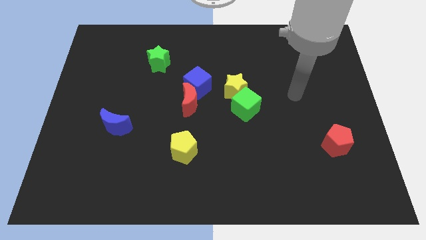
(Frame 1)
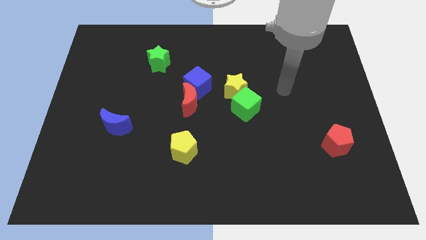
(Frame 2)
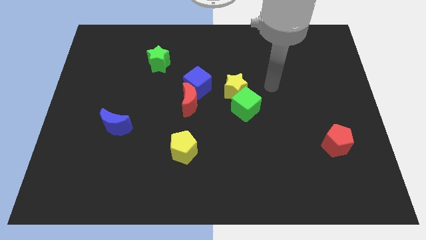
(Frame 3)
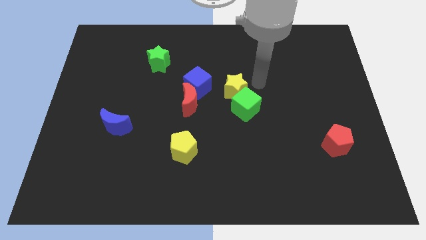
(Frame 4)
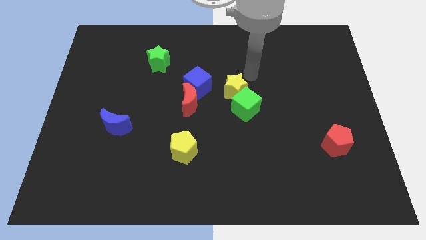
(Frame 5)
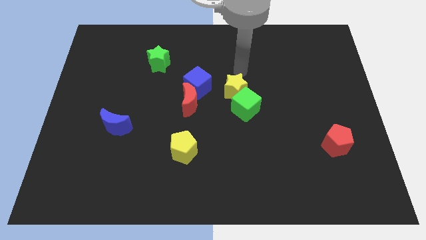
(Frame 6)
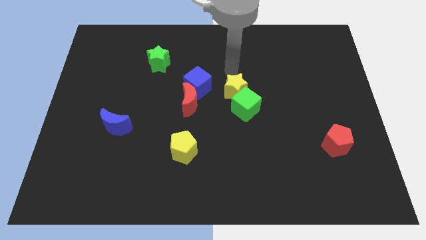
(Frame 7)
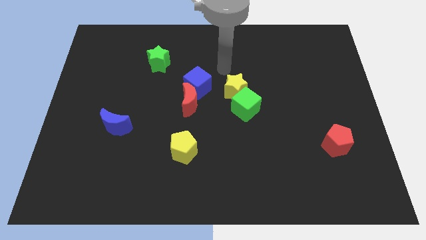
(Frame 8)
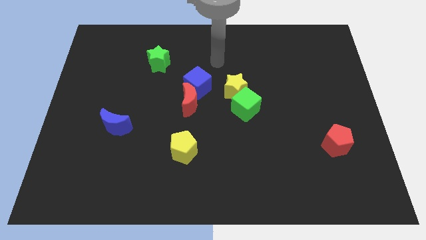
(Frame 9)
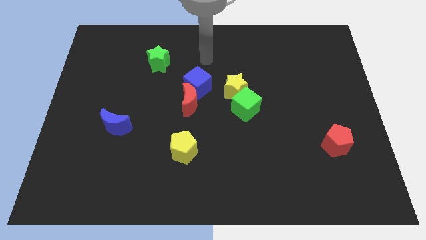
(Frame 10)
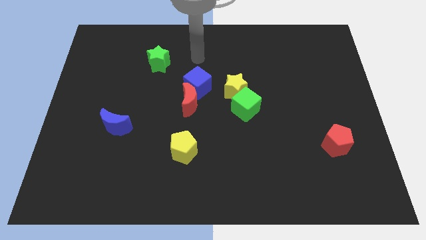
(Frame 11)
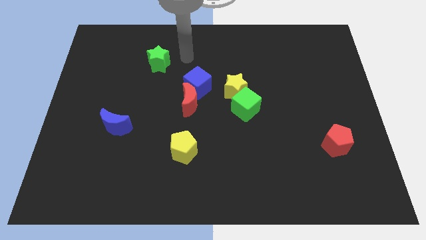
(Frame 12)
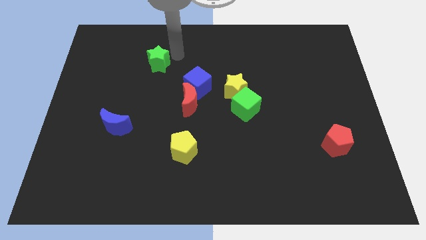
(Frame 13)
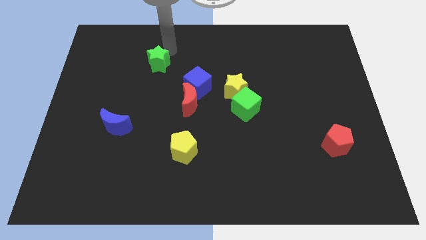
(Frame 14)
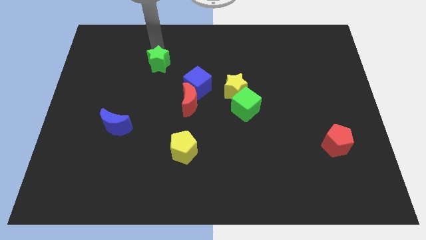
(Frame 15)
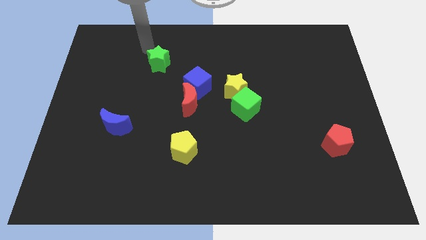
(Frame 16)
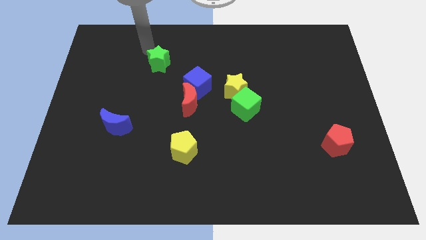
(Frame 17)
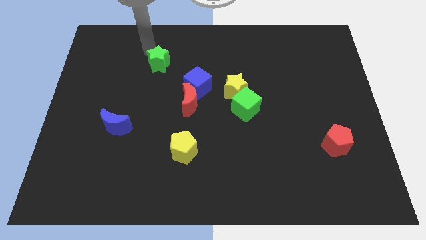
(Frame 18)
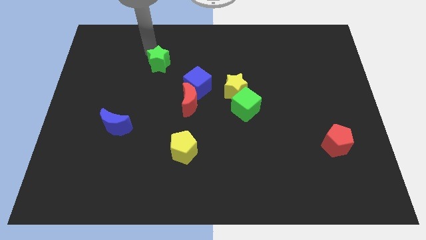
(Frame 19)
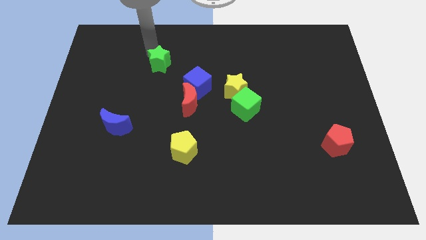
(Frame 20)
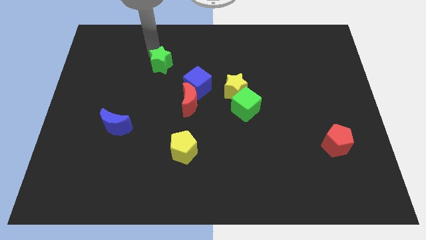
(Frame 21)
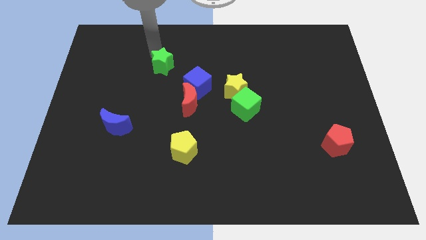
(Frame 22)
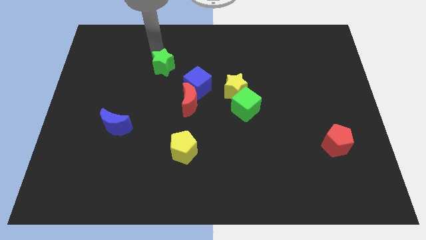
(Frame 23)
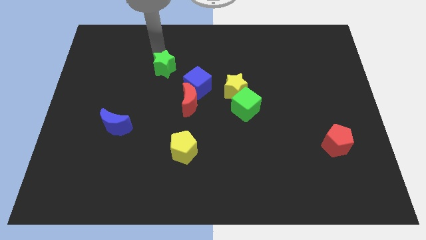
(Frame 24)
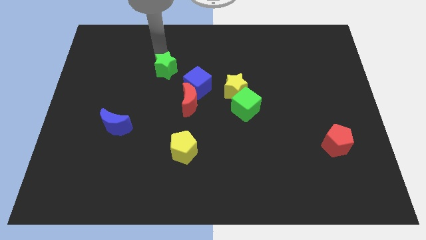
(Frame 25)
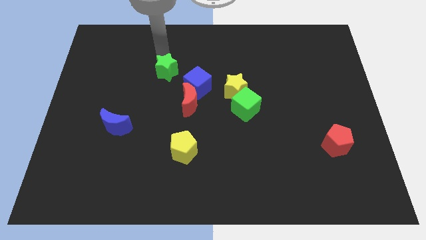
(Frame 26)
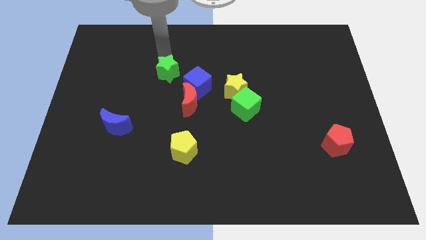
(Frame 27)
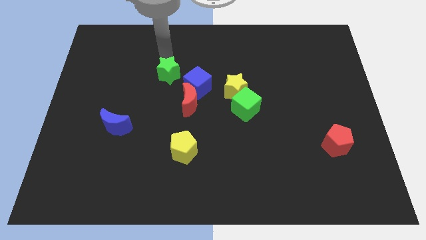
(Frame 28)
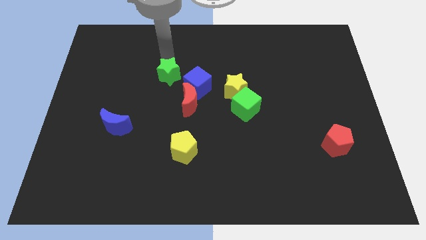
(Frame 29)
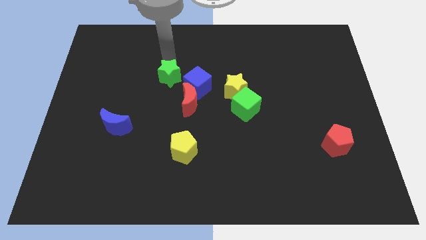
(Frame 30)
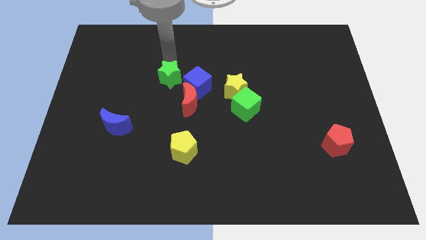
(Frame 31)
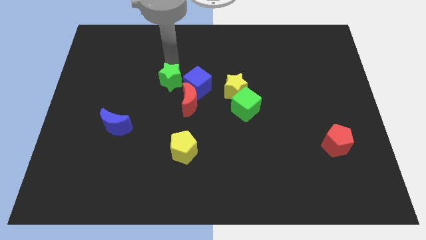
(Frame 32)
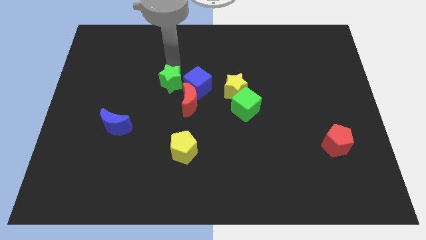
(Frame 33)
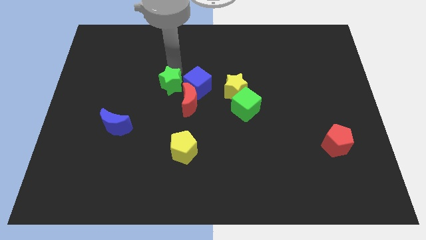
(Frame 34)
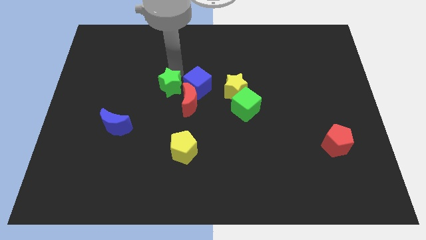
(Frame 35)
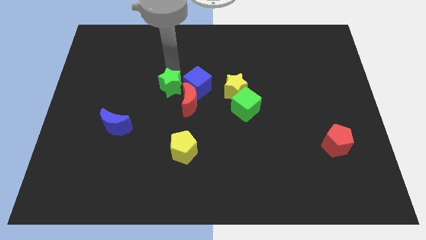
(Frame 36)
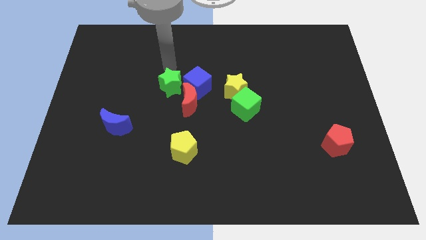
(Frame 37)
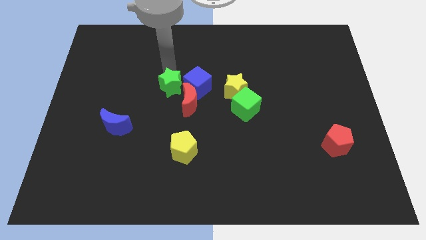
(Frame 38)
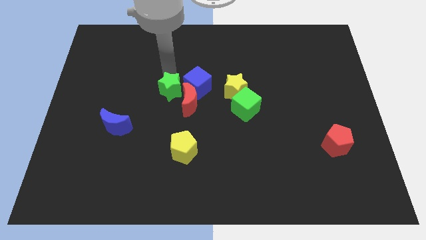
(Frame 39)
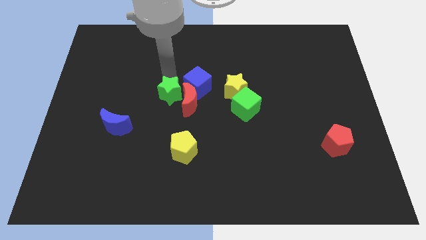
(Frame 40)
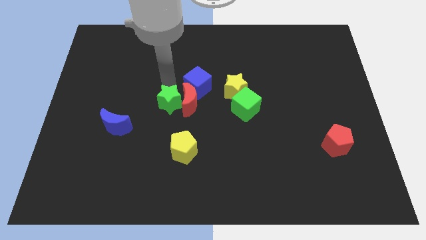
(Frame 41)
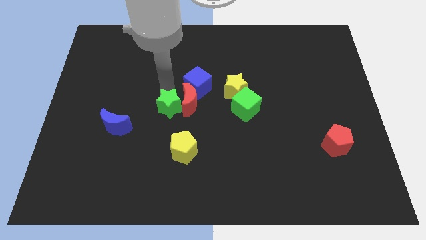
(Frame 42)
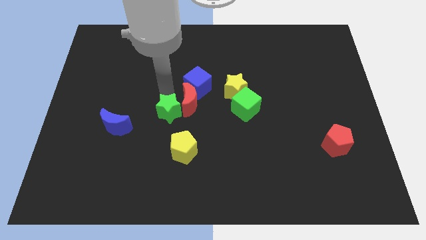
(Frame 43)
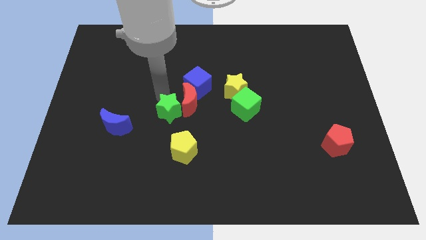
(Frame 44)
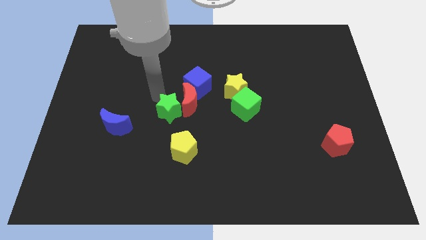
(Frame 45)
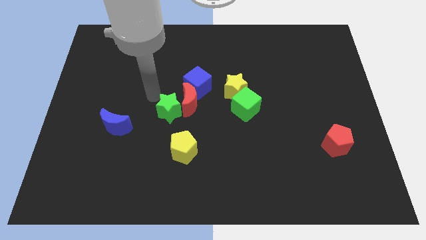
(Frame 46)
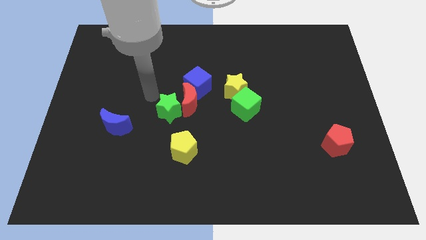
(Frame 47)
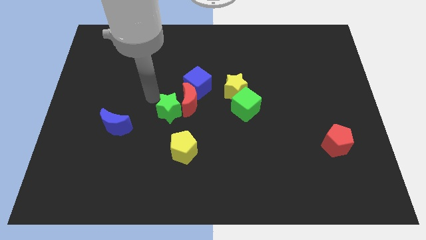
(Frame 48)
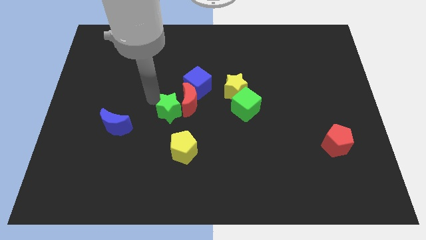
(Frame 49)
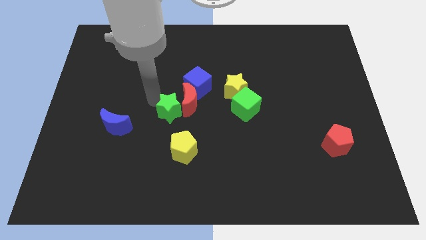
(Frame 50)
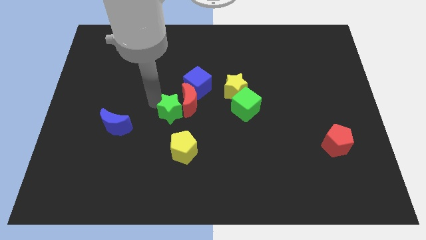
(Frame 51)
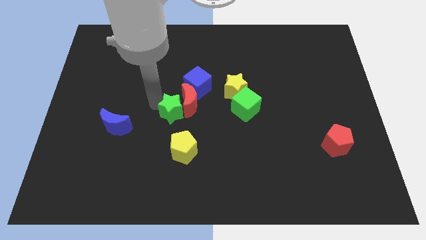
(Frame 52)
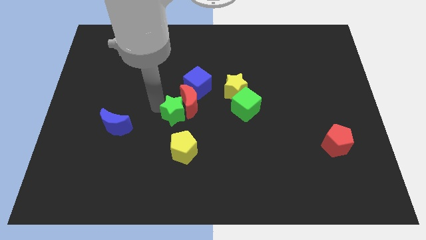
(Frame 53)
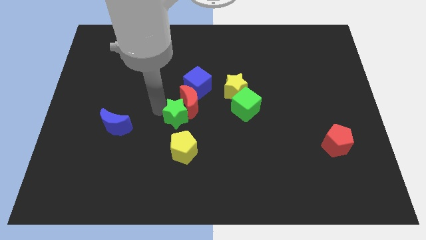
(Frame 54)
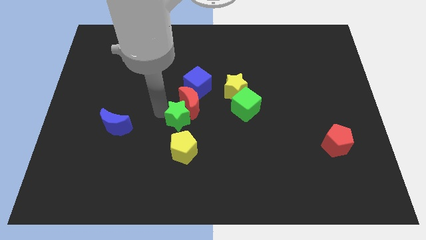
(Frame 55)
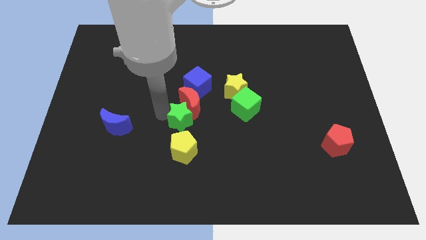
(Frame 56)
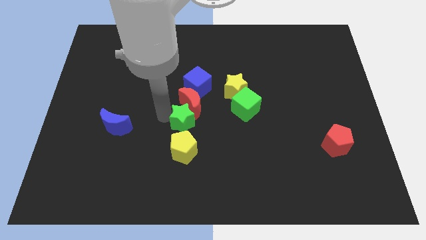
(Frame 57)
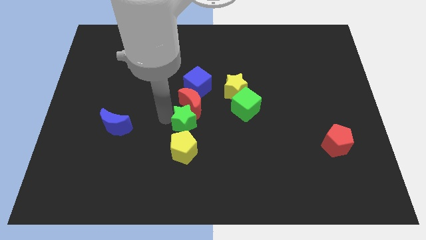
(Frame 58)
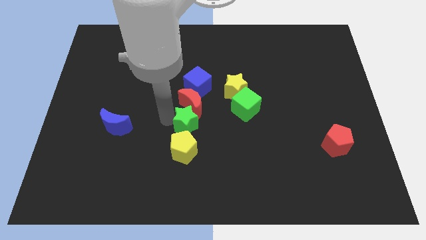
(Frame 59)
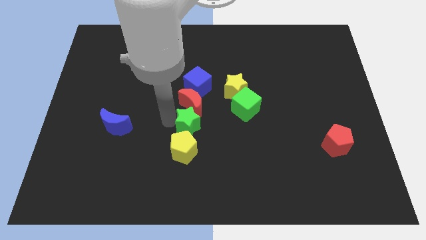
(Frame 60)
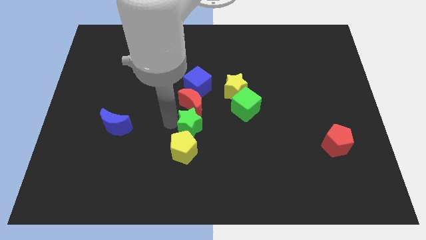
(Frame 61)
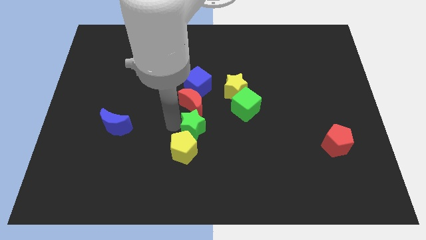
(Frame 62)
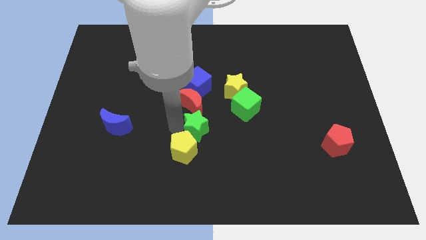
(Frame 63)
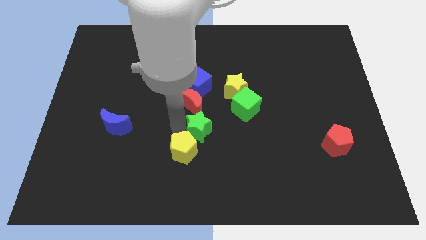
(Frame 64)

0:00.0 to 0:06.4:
push the green star down and right

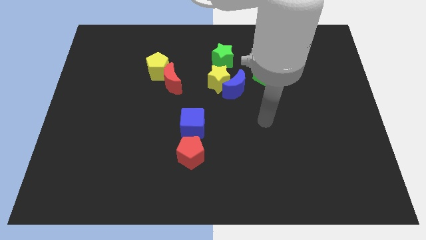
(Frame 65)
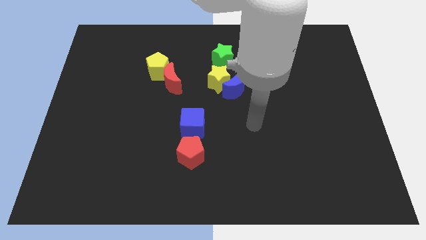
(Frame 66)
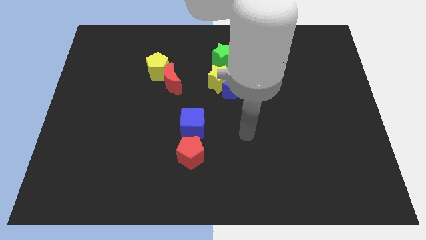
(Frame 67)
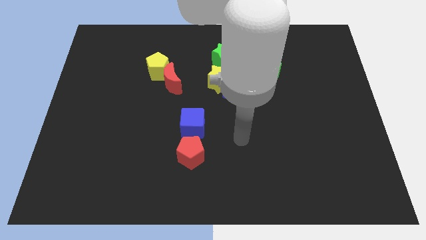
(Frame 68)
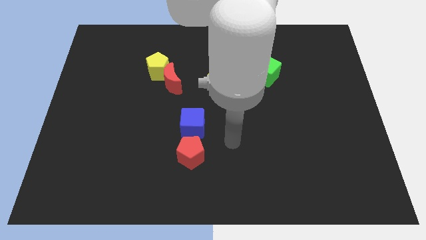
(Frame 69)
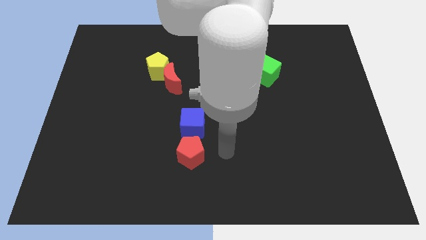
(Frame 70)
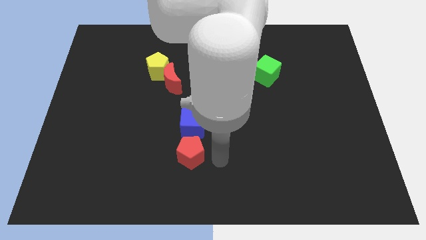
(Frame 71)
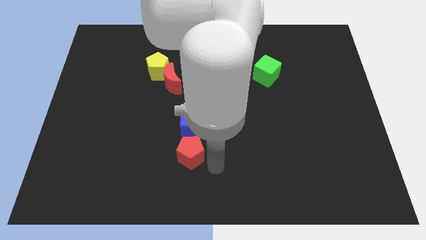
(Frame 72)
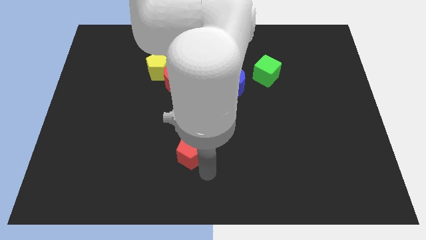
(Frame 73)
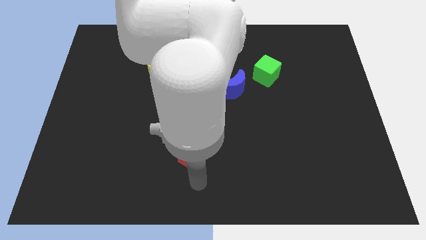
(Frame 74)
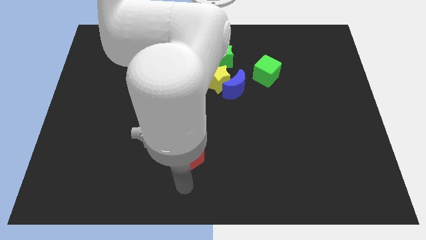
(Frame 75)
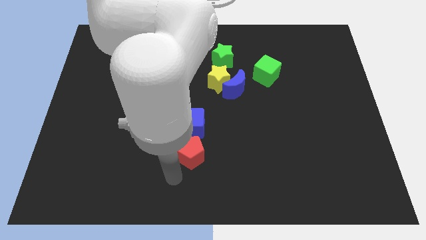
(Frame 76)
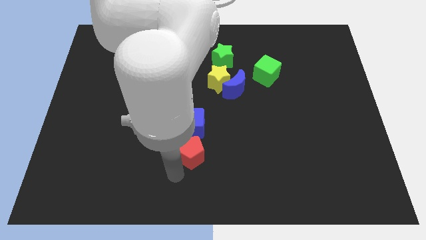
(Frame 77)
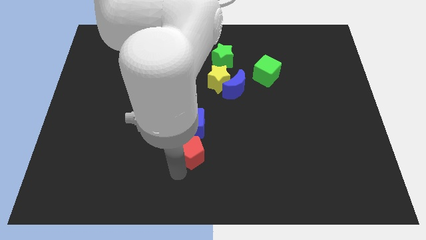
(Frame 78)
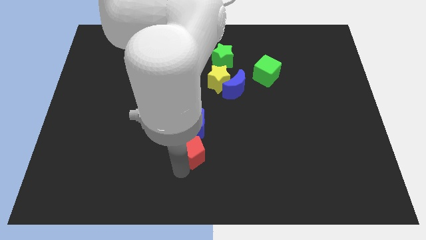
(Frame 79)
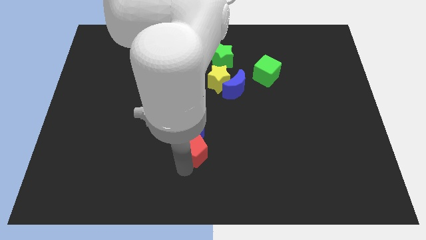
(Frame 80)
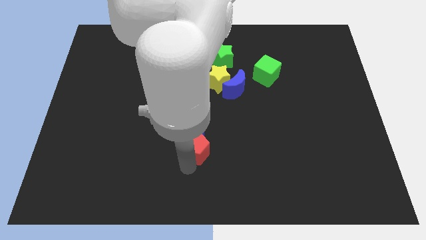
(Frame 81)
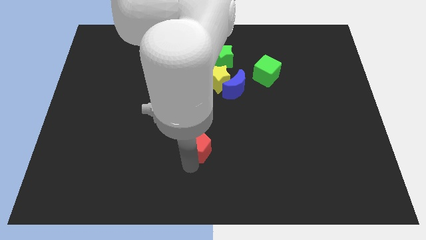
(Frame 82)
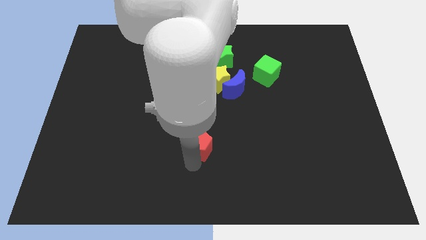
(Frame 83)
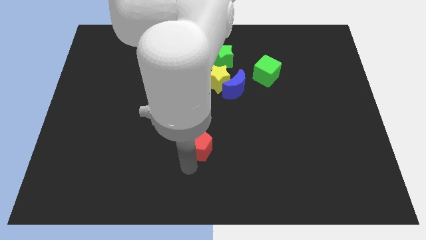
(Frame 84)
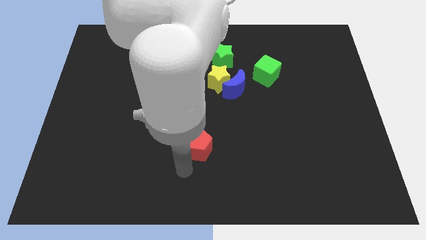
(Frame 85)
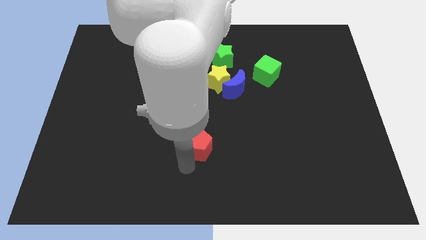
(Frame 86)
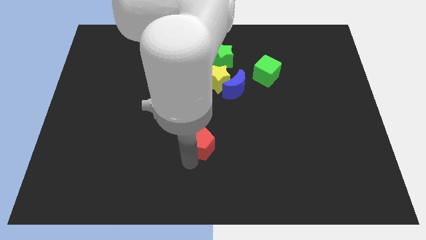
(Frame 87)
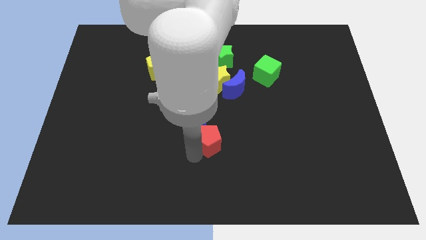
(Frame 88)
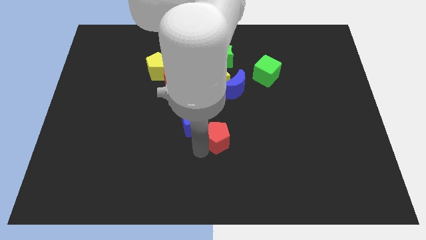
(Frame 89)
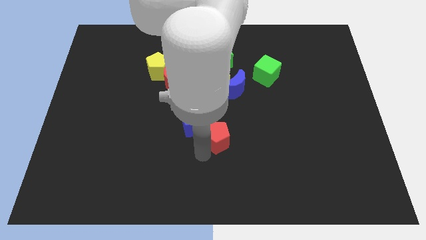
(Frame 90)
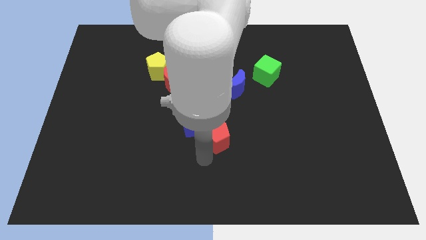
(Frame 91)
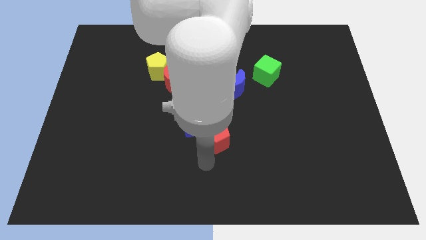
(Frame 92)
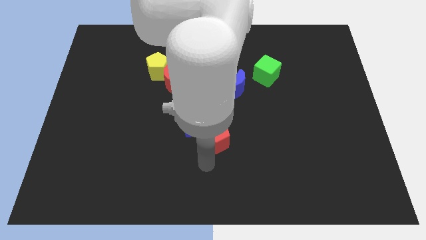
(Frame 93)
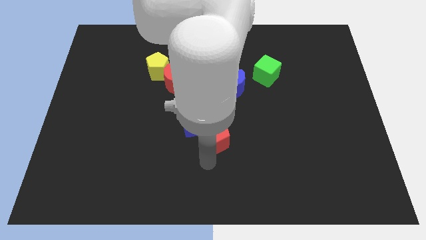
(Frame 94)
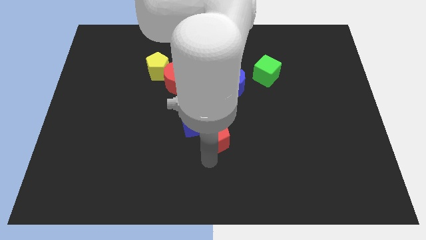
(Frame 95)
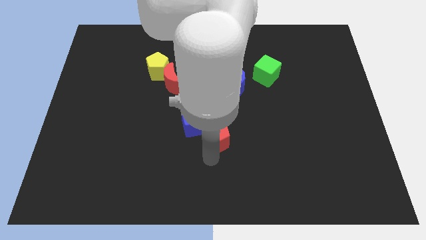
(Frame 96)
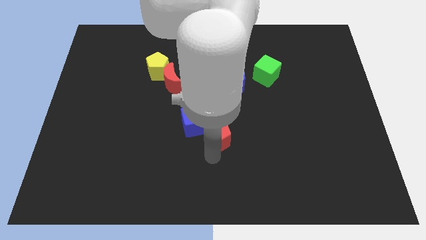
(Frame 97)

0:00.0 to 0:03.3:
slightly move the red pentagon upwards and to the right diagonally
